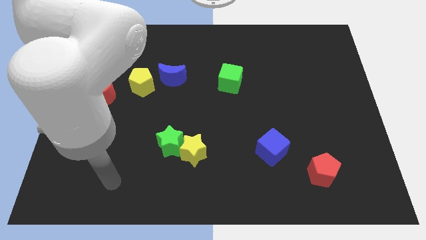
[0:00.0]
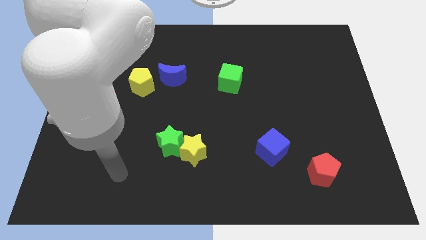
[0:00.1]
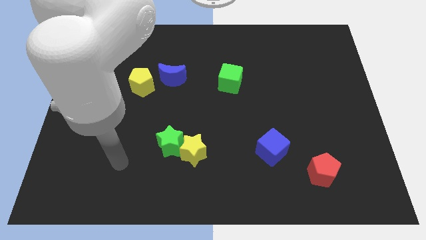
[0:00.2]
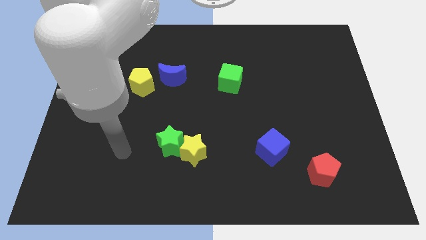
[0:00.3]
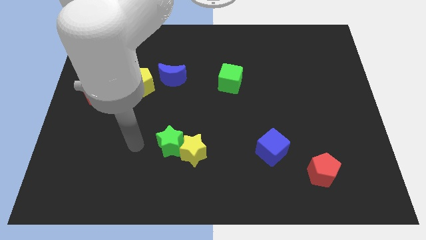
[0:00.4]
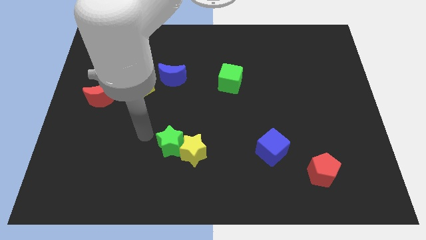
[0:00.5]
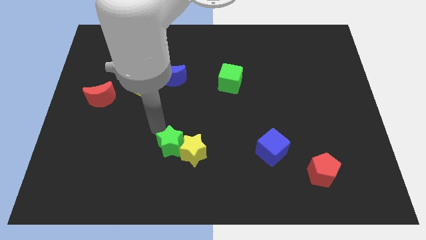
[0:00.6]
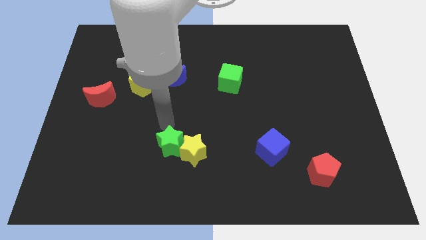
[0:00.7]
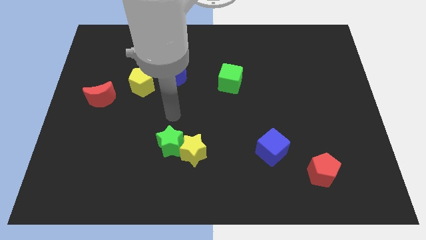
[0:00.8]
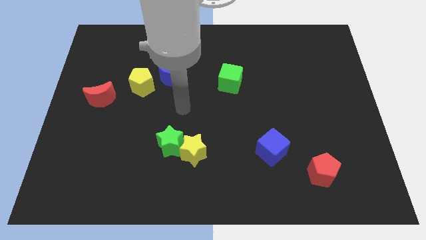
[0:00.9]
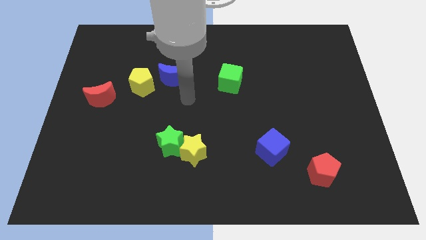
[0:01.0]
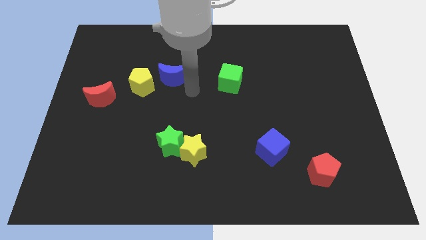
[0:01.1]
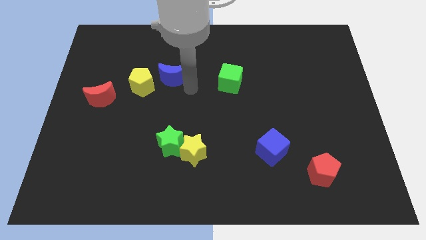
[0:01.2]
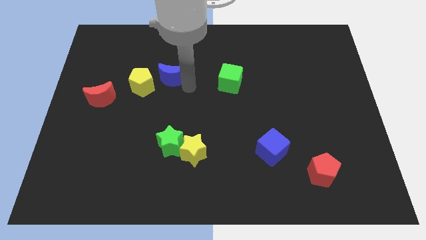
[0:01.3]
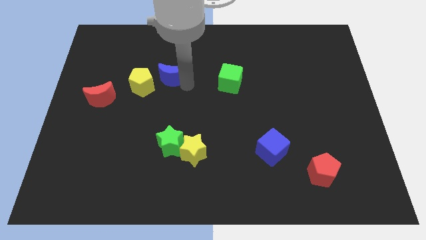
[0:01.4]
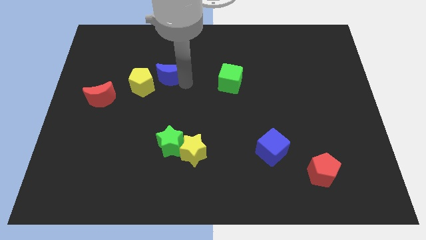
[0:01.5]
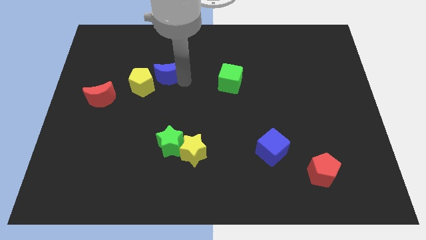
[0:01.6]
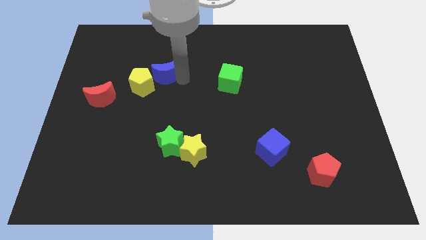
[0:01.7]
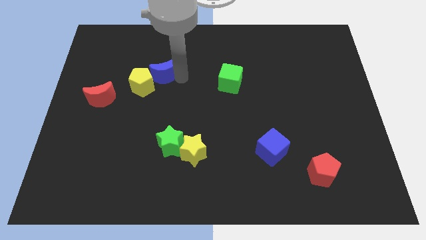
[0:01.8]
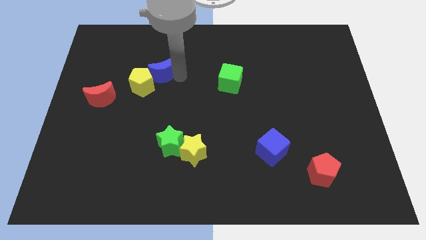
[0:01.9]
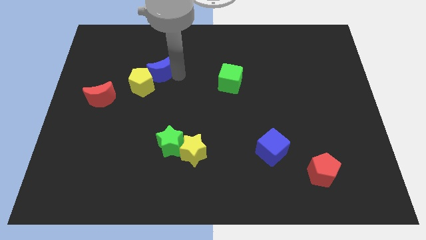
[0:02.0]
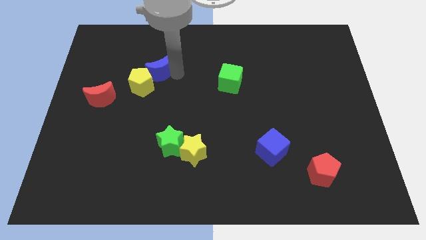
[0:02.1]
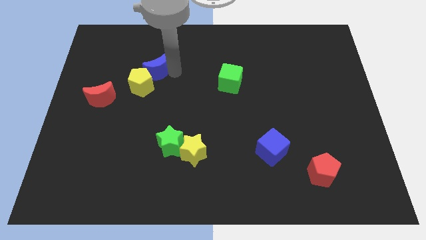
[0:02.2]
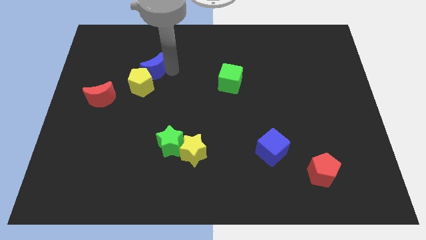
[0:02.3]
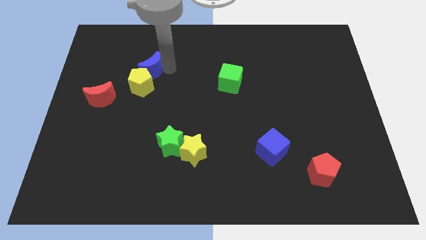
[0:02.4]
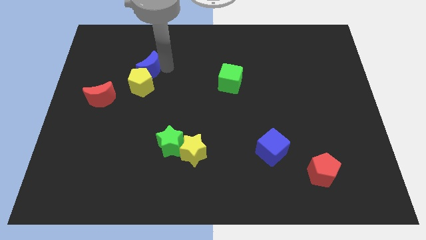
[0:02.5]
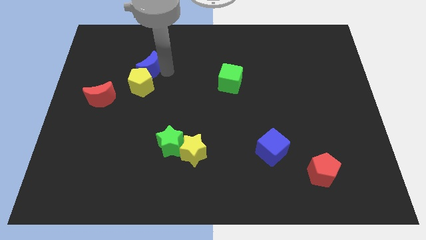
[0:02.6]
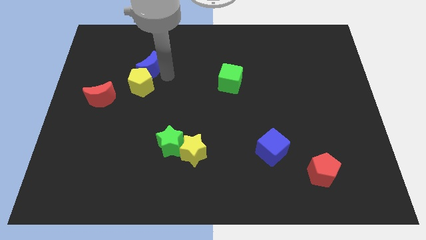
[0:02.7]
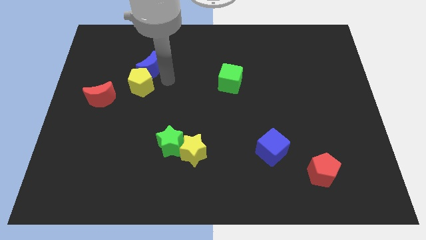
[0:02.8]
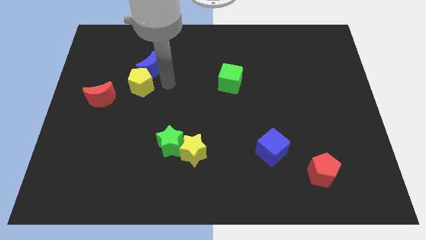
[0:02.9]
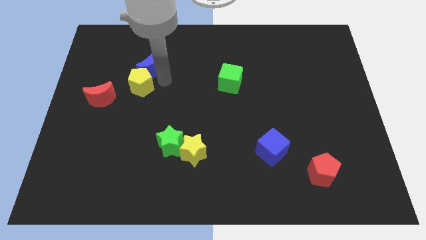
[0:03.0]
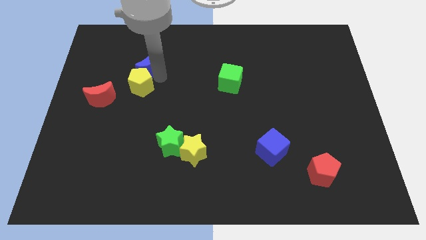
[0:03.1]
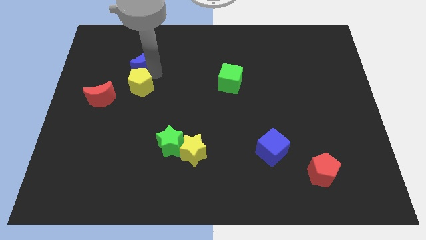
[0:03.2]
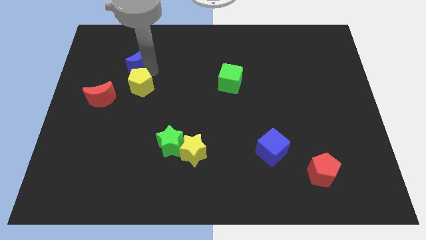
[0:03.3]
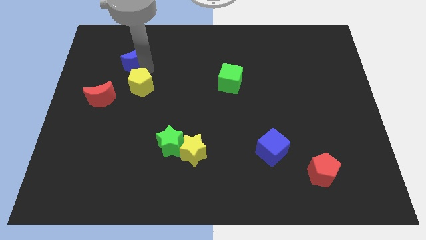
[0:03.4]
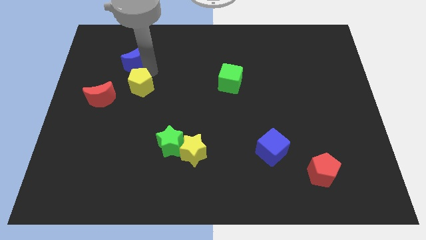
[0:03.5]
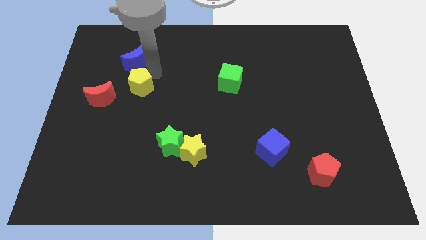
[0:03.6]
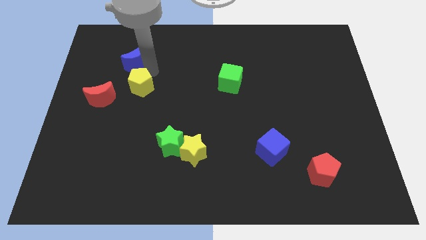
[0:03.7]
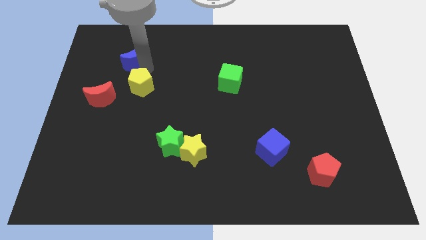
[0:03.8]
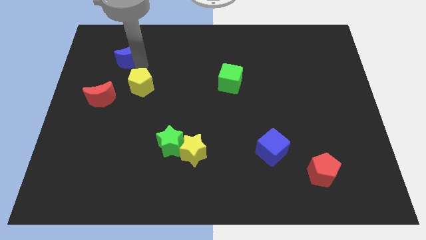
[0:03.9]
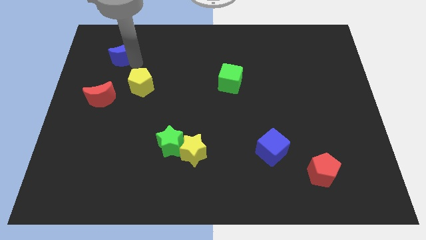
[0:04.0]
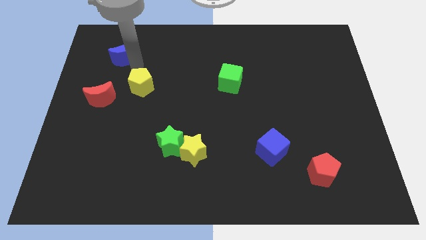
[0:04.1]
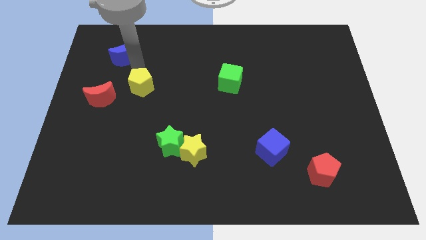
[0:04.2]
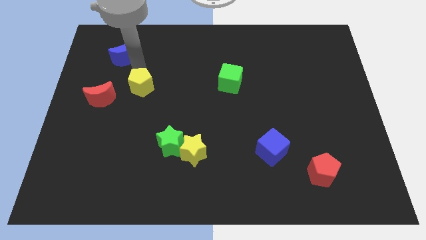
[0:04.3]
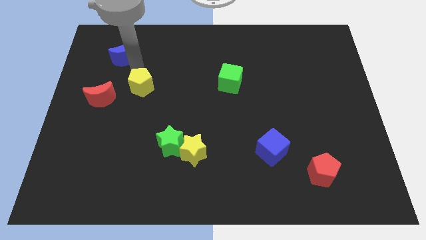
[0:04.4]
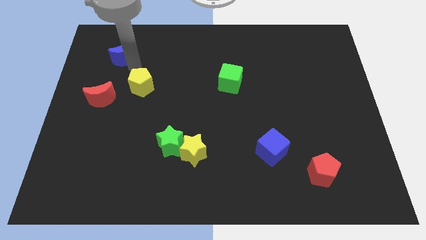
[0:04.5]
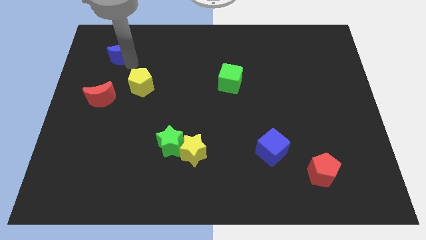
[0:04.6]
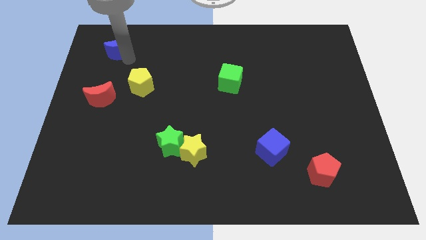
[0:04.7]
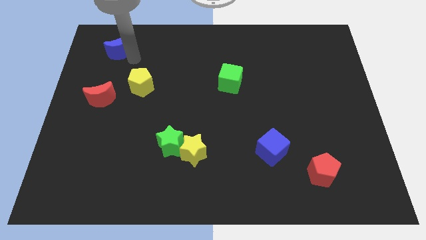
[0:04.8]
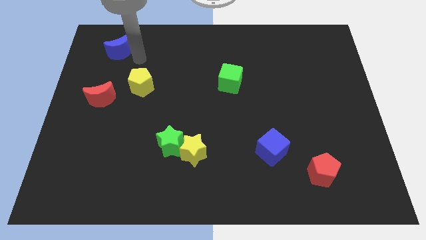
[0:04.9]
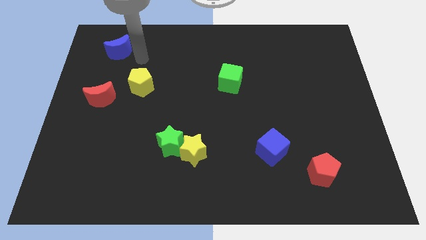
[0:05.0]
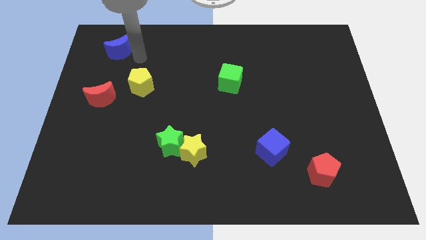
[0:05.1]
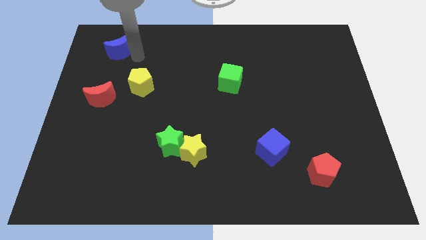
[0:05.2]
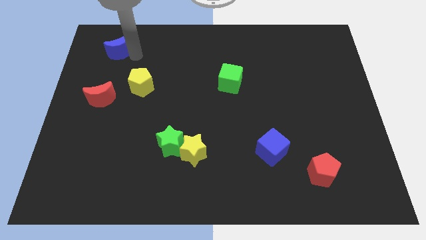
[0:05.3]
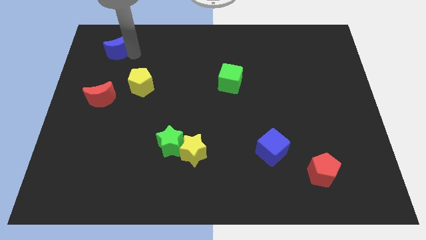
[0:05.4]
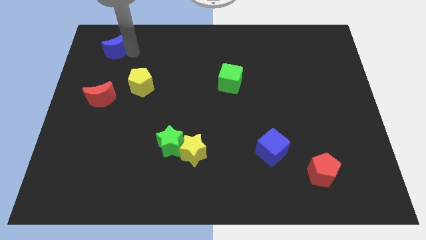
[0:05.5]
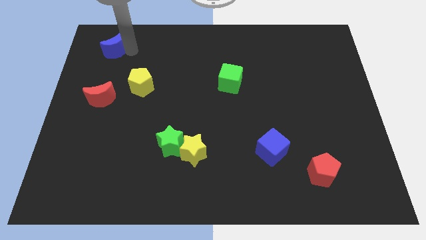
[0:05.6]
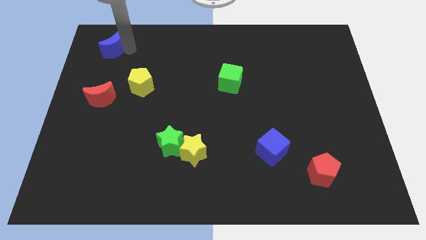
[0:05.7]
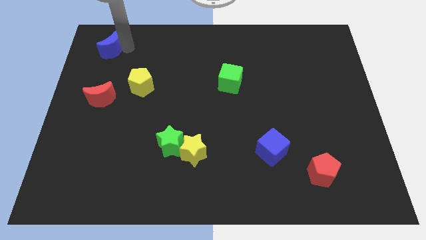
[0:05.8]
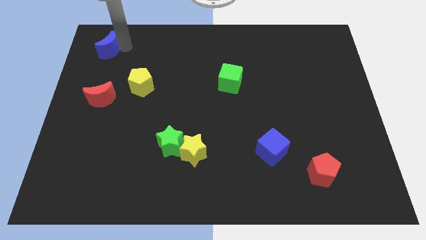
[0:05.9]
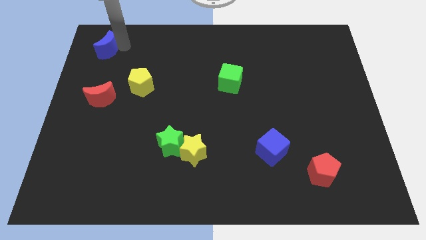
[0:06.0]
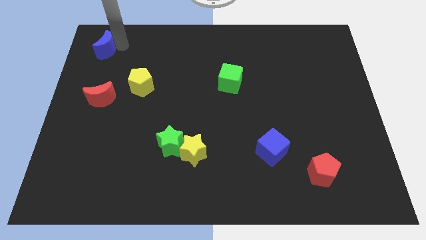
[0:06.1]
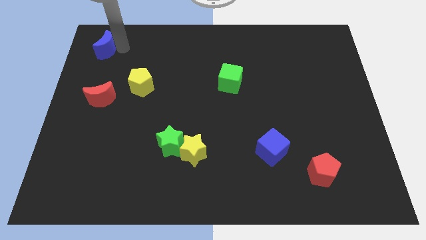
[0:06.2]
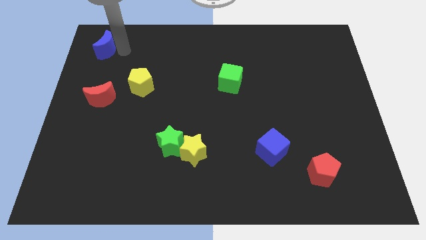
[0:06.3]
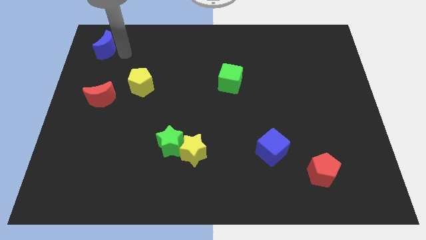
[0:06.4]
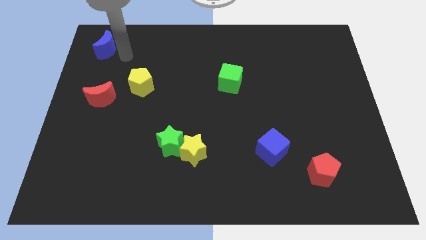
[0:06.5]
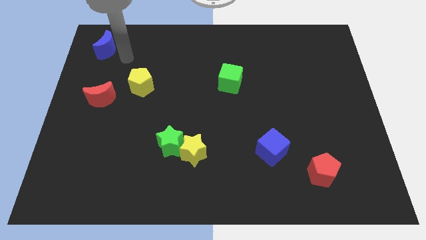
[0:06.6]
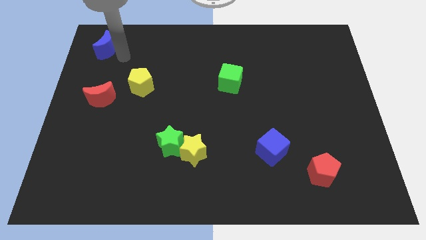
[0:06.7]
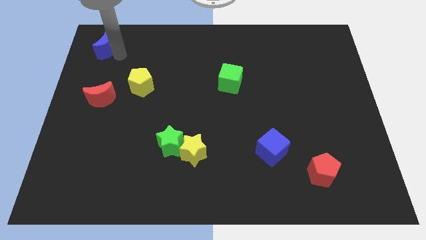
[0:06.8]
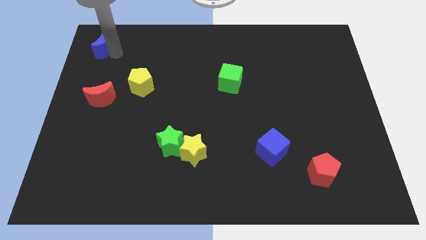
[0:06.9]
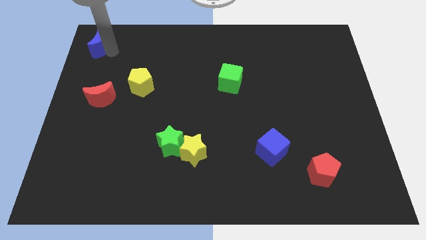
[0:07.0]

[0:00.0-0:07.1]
push the blue moon to the upper left corner
